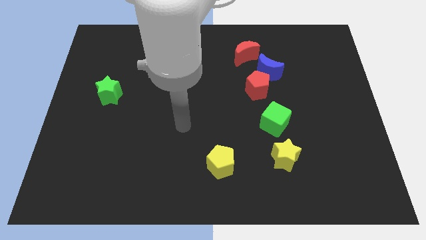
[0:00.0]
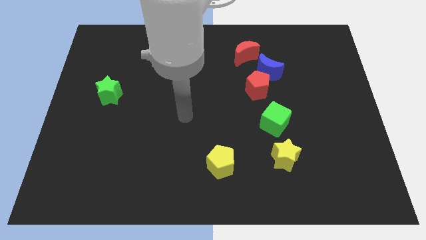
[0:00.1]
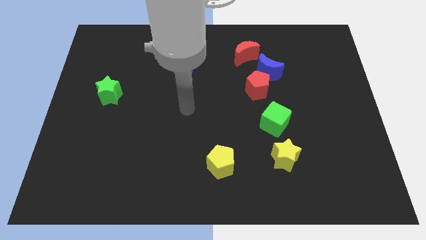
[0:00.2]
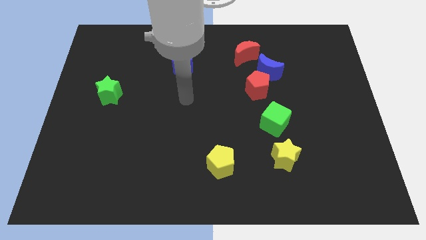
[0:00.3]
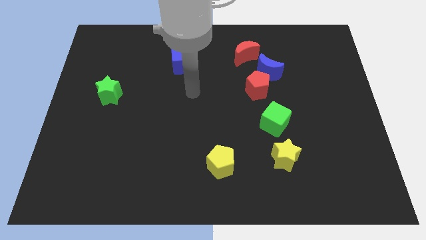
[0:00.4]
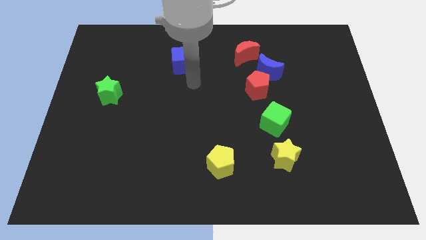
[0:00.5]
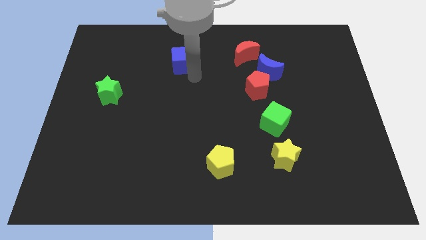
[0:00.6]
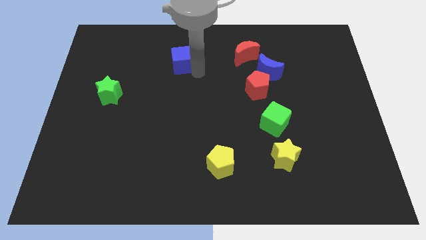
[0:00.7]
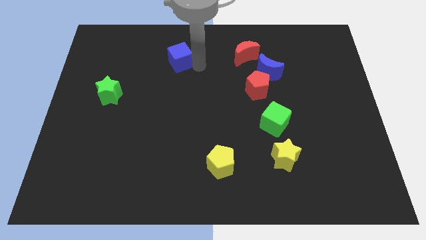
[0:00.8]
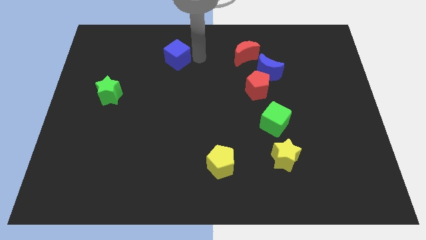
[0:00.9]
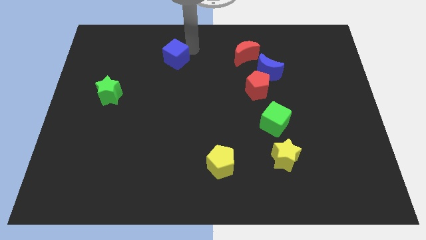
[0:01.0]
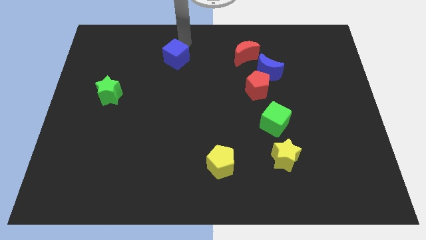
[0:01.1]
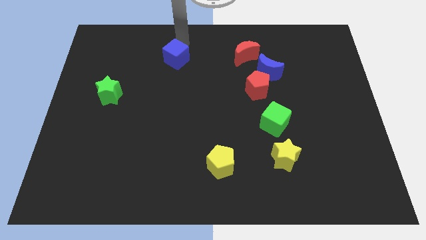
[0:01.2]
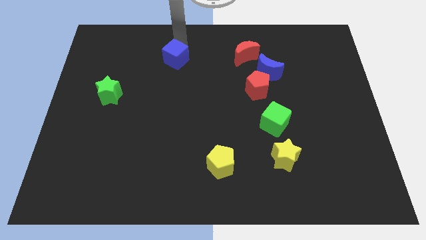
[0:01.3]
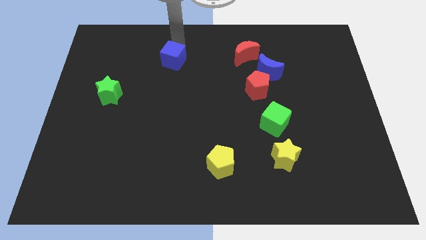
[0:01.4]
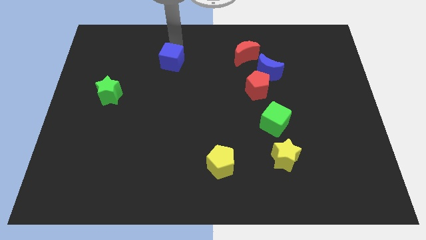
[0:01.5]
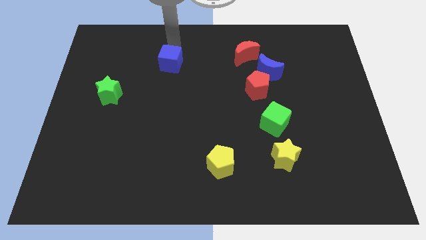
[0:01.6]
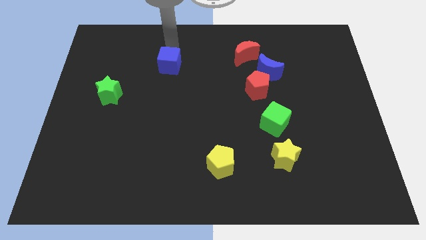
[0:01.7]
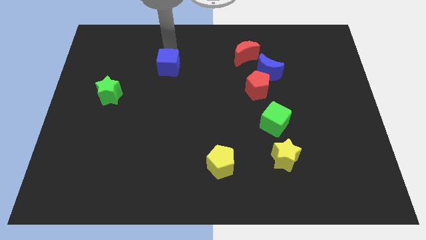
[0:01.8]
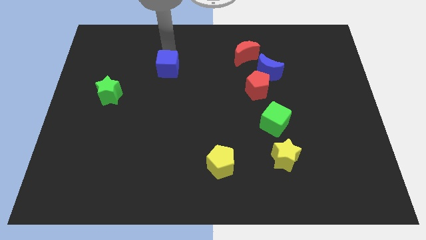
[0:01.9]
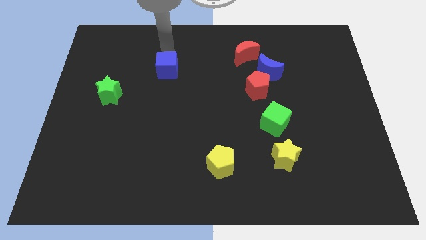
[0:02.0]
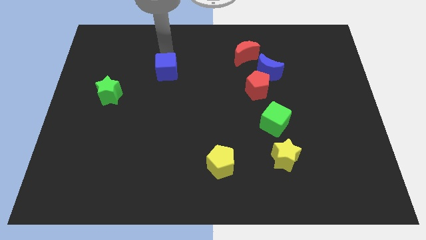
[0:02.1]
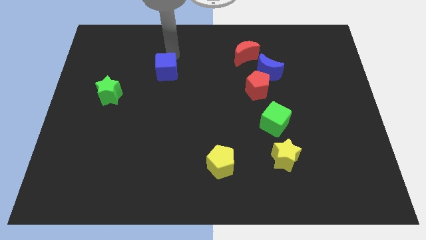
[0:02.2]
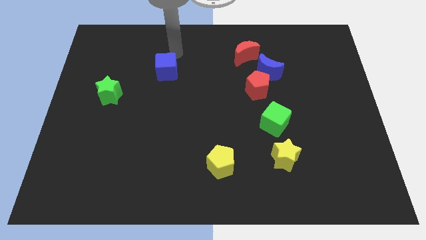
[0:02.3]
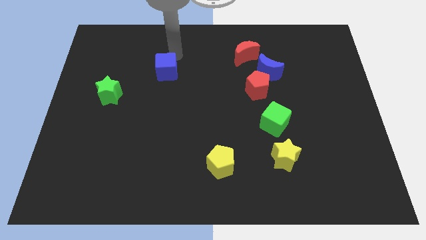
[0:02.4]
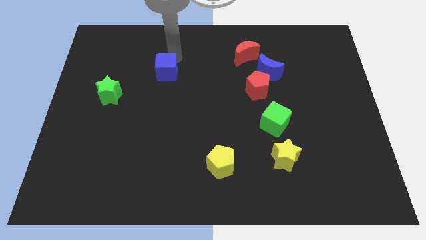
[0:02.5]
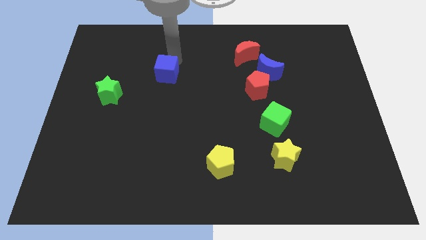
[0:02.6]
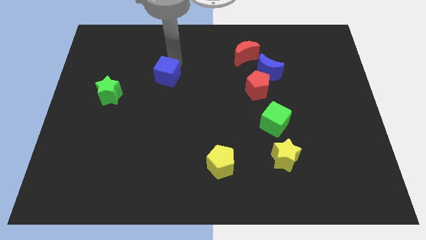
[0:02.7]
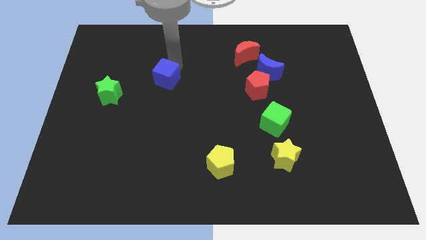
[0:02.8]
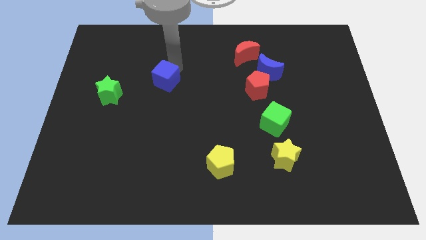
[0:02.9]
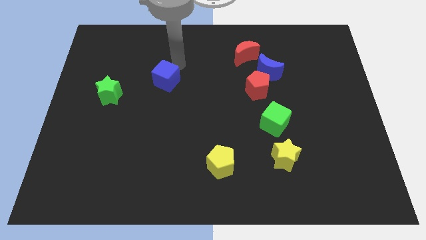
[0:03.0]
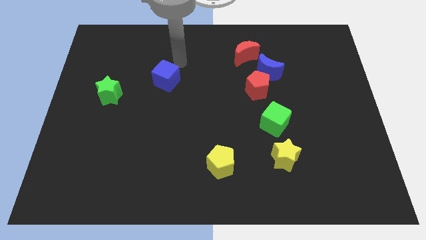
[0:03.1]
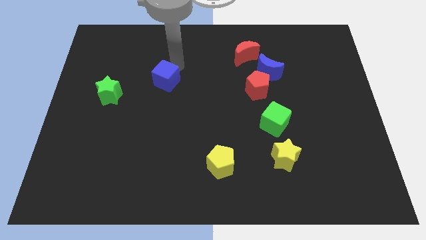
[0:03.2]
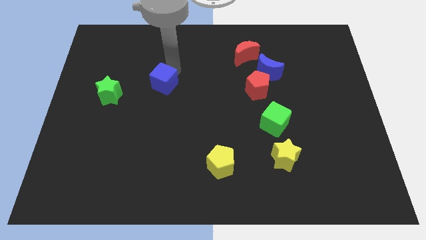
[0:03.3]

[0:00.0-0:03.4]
move the blue cube downwards and then to the left a little

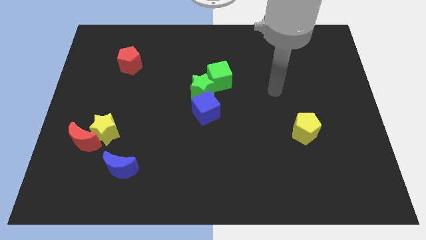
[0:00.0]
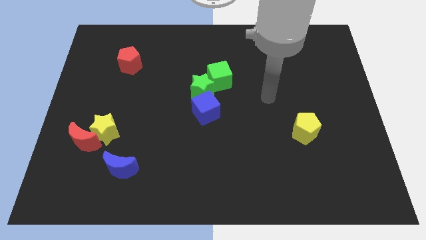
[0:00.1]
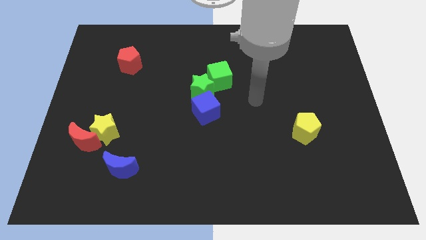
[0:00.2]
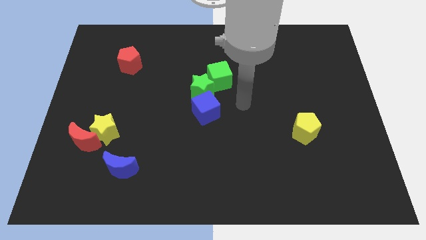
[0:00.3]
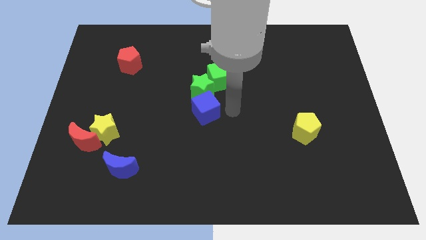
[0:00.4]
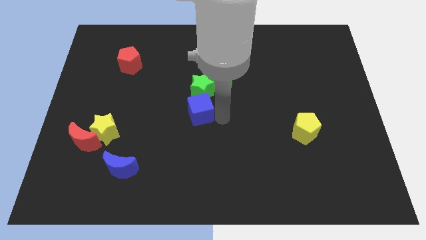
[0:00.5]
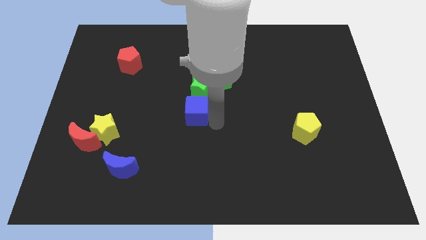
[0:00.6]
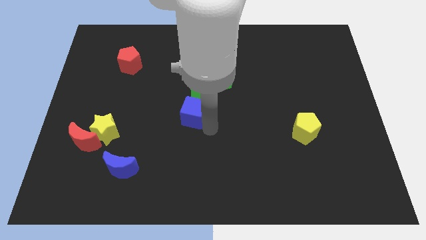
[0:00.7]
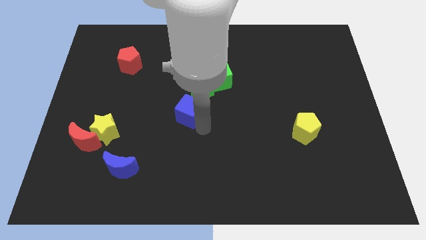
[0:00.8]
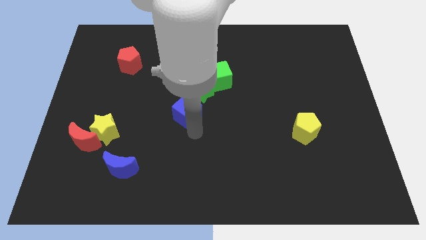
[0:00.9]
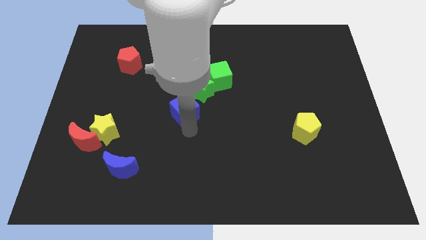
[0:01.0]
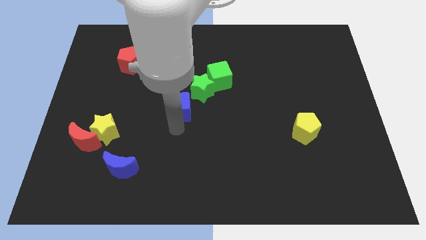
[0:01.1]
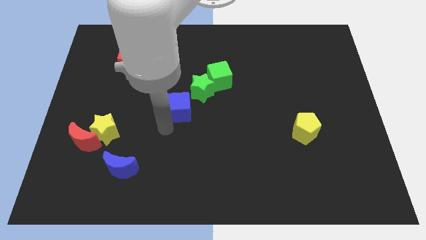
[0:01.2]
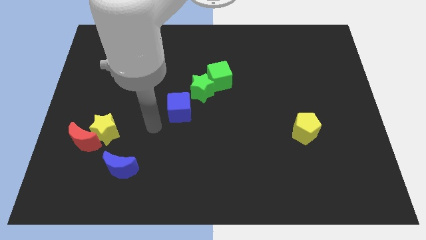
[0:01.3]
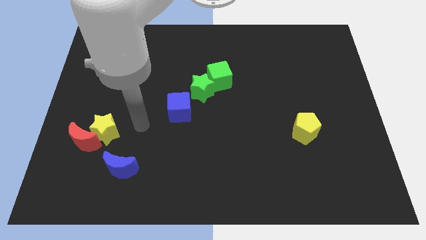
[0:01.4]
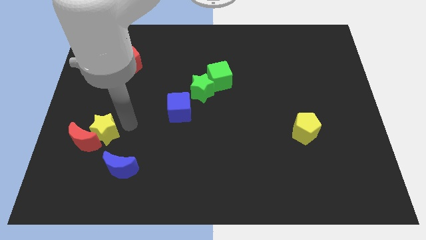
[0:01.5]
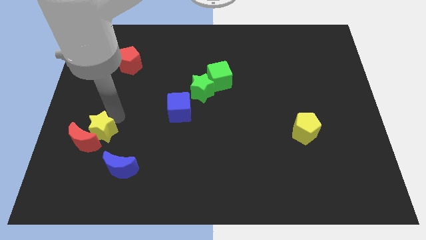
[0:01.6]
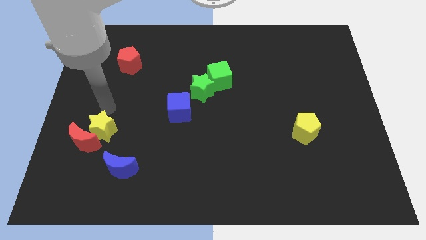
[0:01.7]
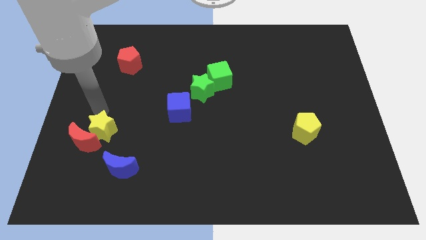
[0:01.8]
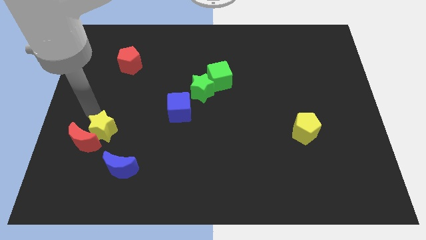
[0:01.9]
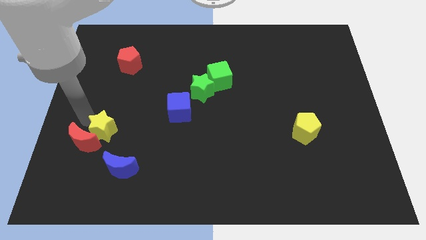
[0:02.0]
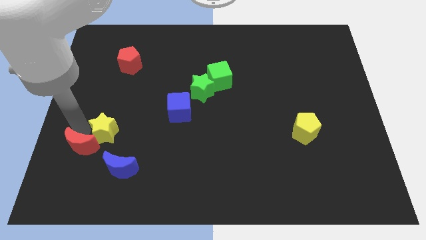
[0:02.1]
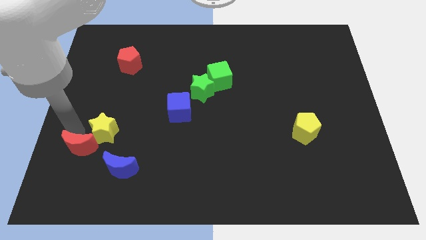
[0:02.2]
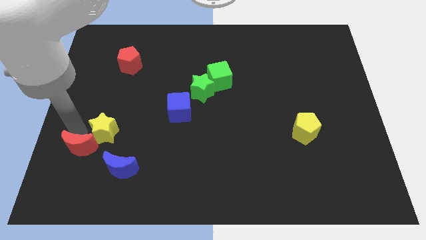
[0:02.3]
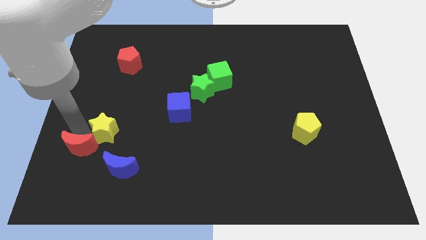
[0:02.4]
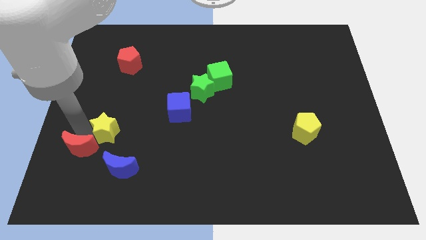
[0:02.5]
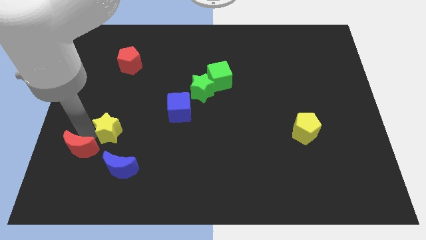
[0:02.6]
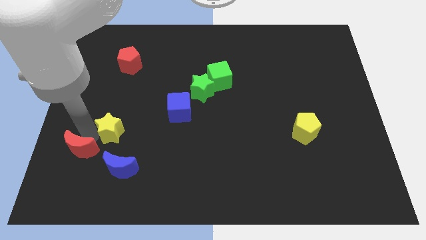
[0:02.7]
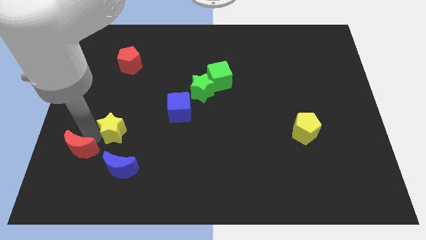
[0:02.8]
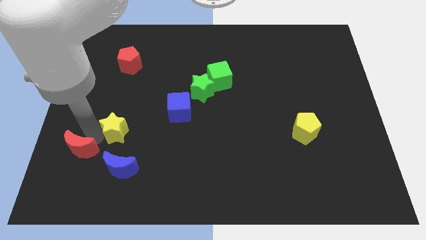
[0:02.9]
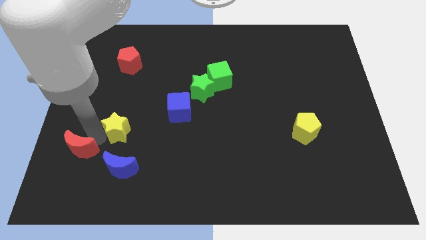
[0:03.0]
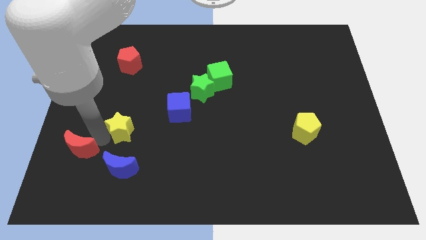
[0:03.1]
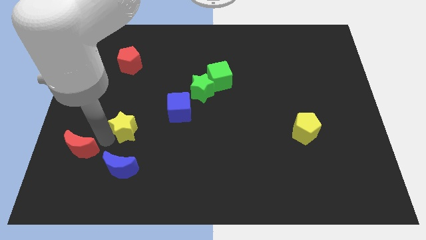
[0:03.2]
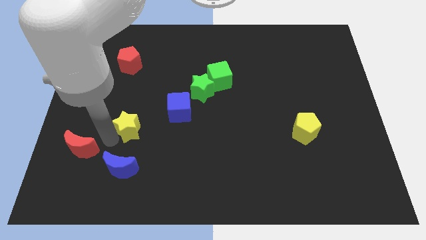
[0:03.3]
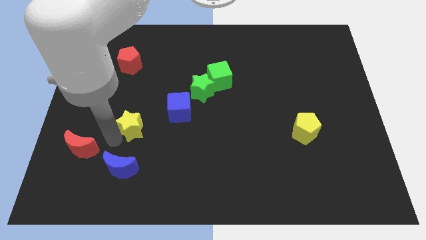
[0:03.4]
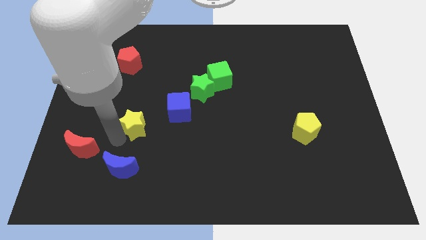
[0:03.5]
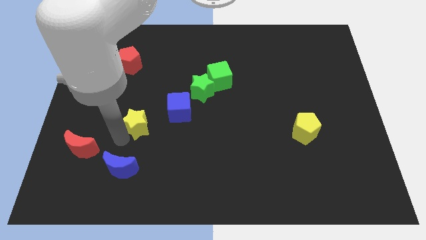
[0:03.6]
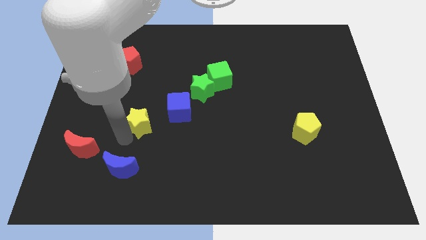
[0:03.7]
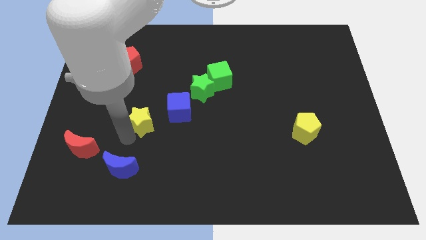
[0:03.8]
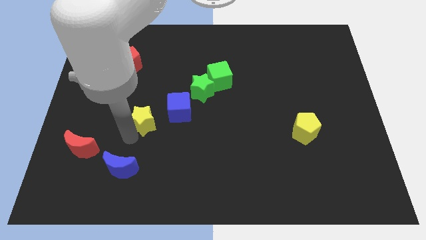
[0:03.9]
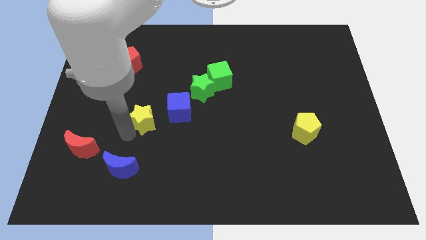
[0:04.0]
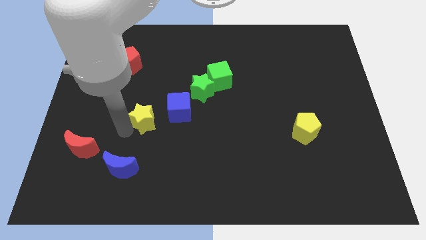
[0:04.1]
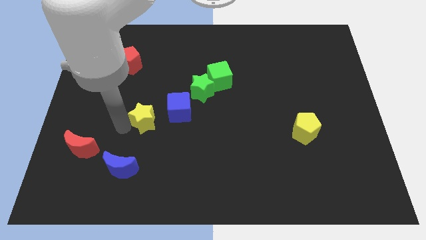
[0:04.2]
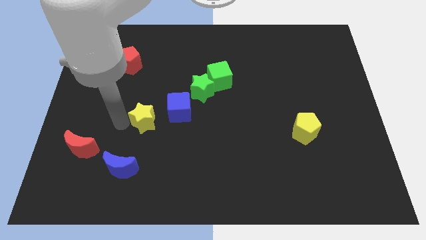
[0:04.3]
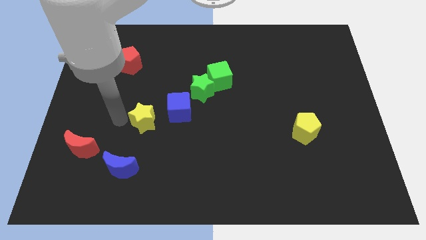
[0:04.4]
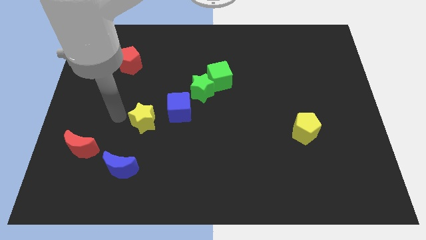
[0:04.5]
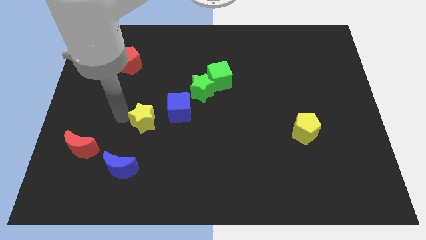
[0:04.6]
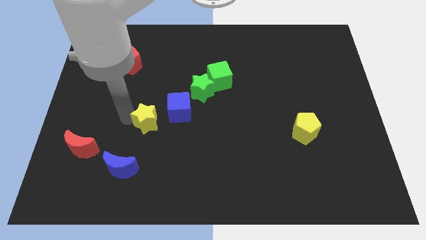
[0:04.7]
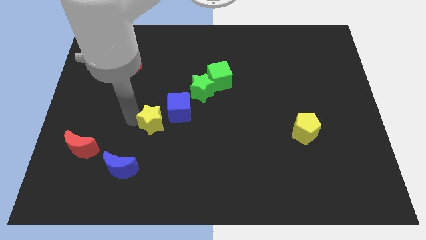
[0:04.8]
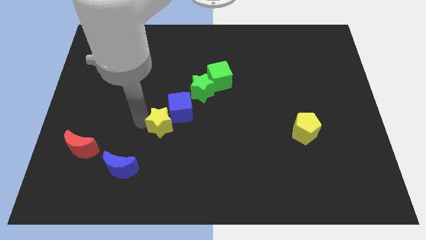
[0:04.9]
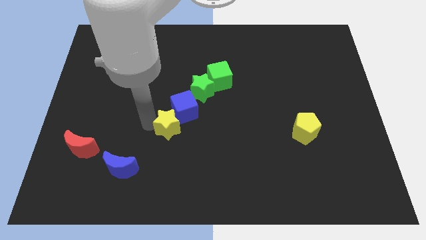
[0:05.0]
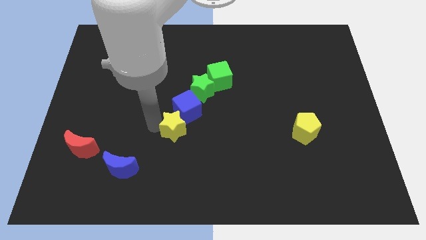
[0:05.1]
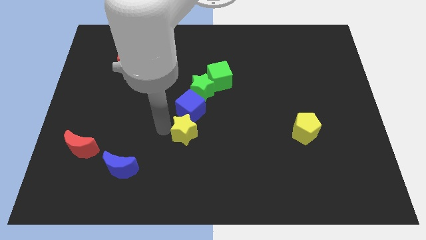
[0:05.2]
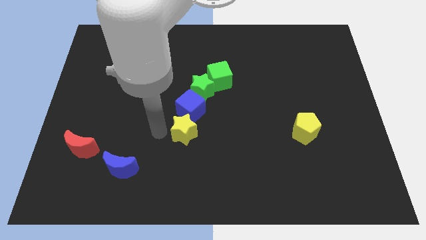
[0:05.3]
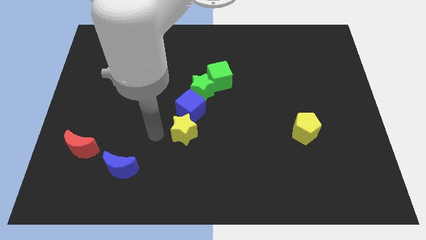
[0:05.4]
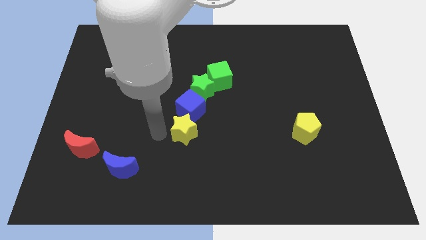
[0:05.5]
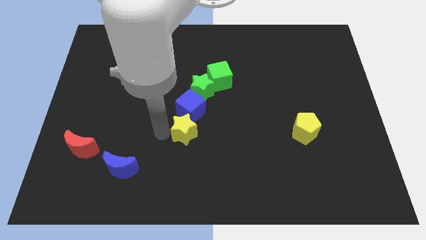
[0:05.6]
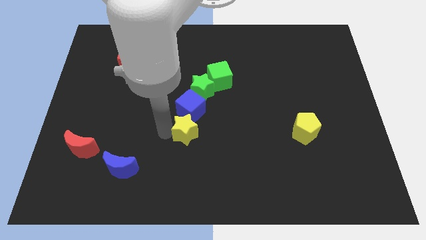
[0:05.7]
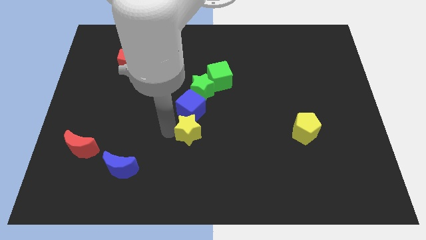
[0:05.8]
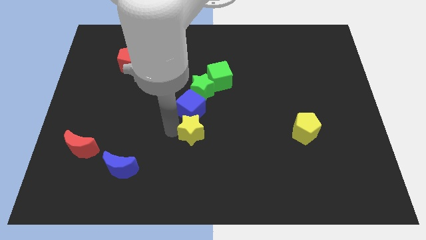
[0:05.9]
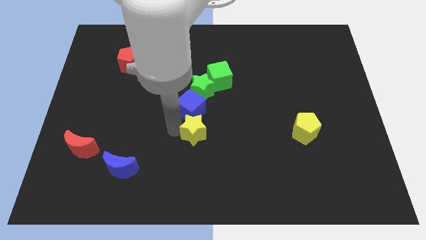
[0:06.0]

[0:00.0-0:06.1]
push the yellow star to the right
